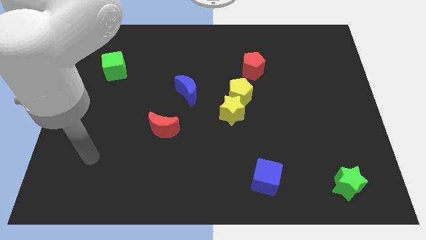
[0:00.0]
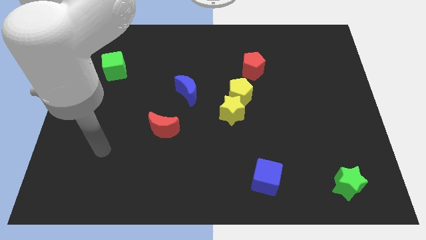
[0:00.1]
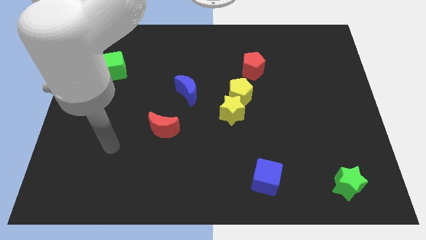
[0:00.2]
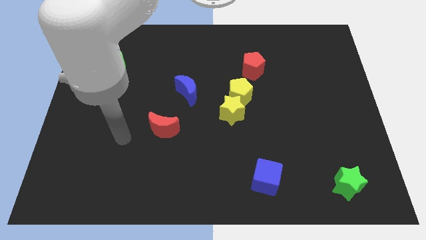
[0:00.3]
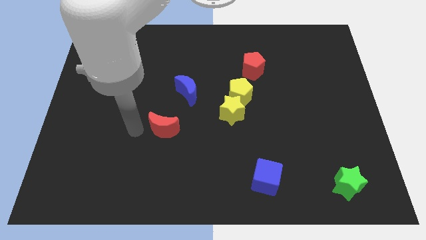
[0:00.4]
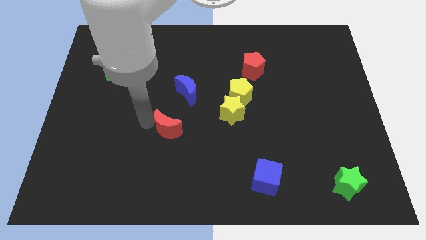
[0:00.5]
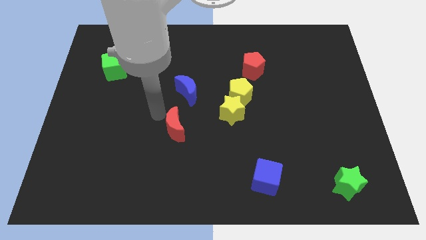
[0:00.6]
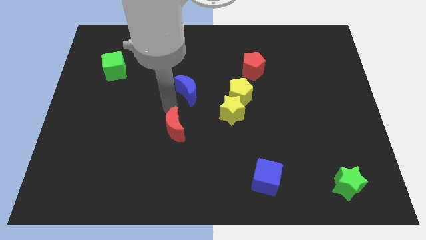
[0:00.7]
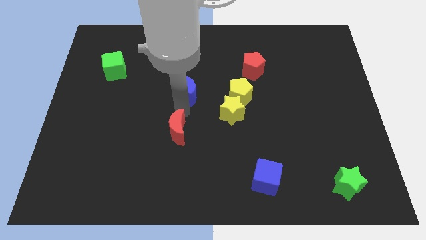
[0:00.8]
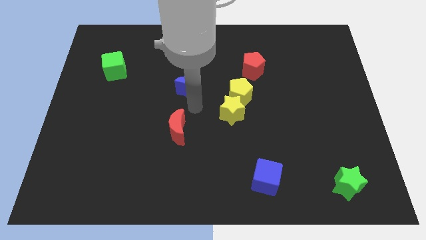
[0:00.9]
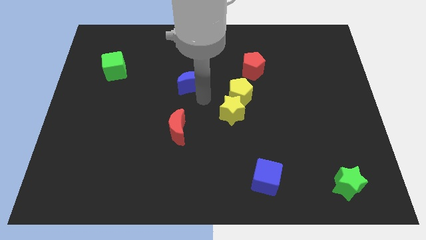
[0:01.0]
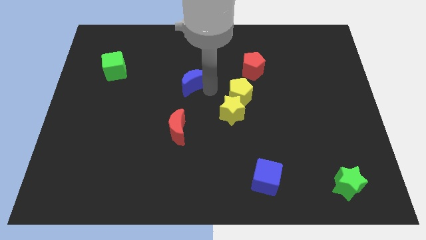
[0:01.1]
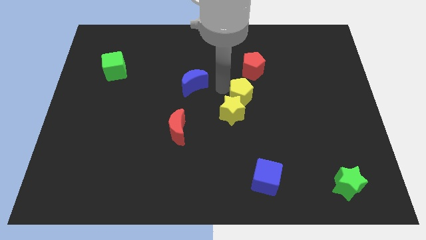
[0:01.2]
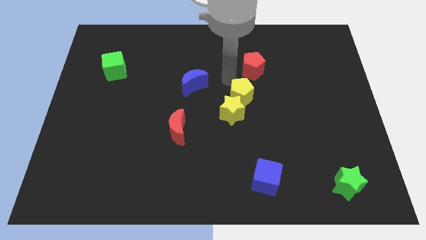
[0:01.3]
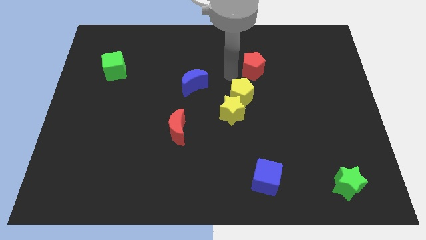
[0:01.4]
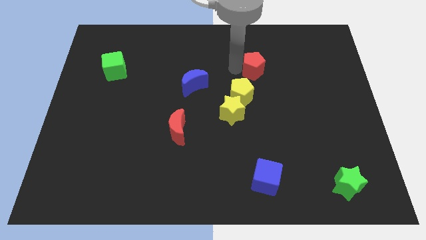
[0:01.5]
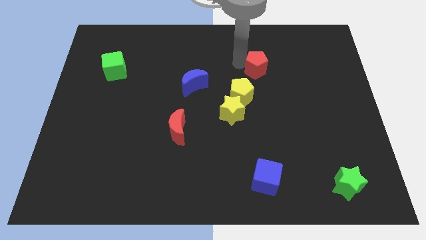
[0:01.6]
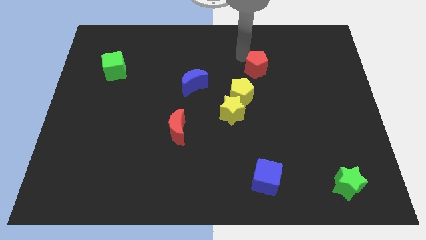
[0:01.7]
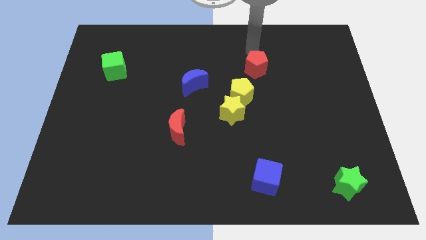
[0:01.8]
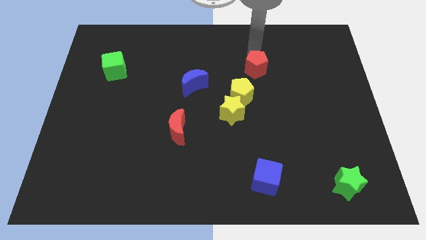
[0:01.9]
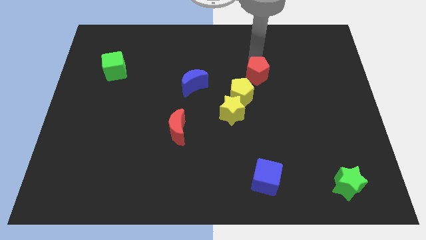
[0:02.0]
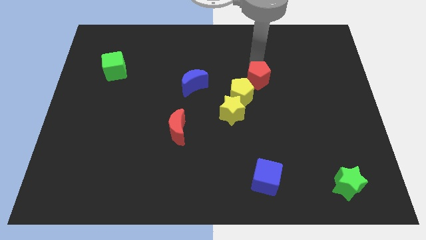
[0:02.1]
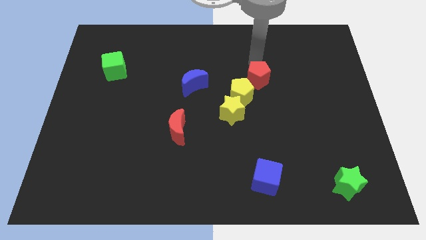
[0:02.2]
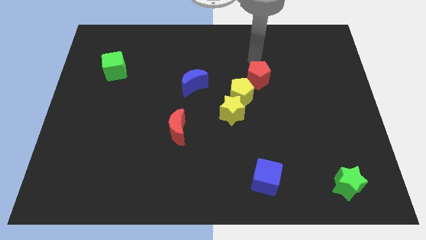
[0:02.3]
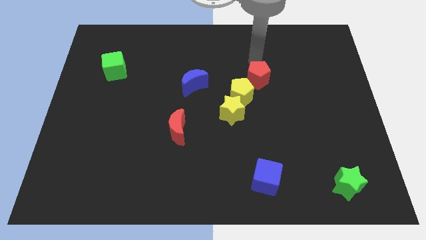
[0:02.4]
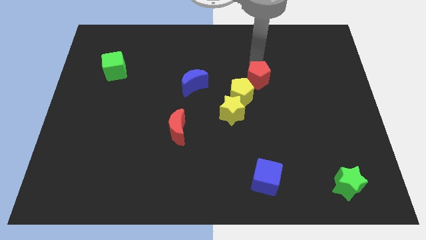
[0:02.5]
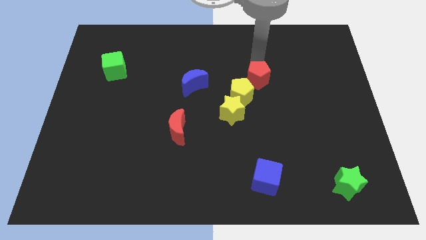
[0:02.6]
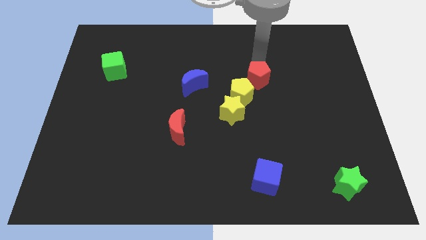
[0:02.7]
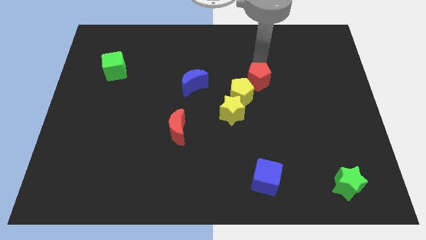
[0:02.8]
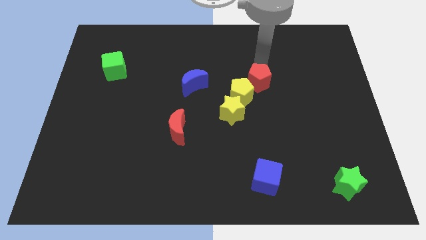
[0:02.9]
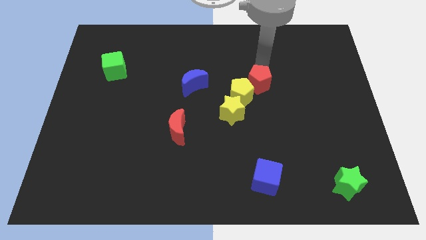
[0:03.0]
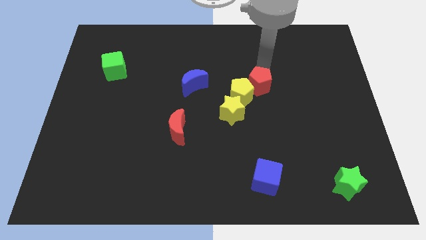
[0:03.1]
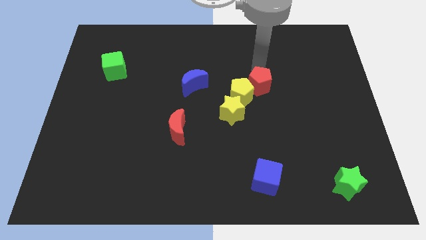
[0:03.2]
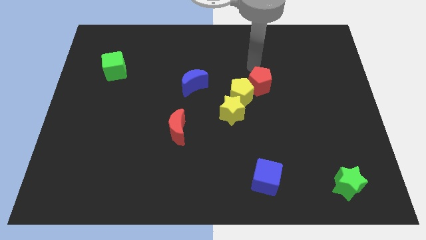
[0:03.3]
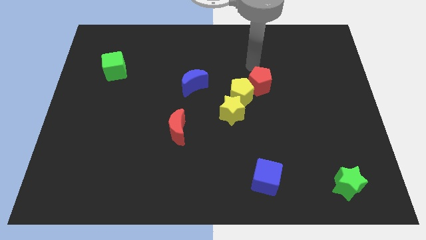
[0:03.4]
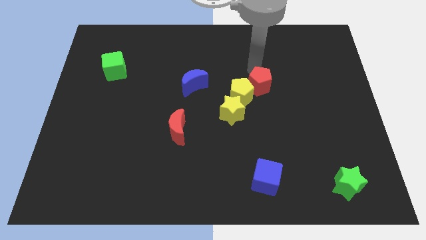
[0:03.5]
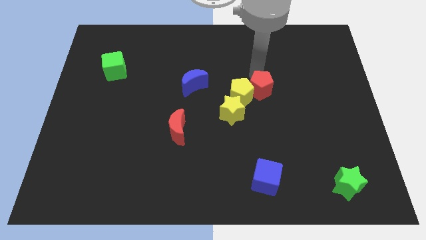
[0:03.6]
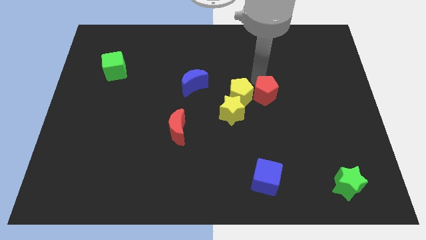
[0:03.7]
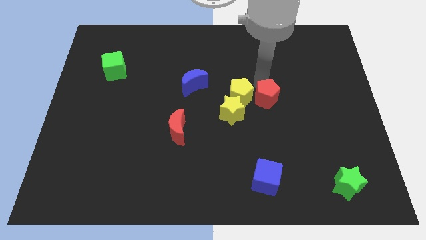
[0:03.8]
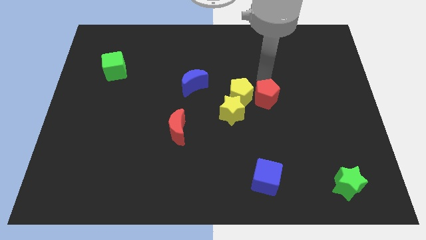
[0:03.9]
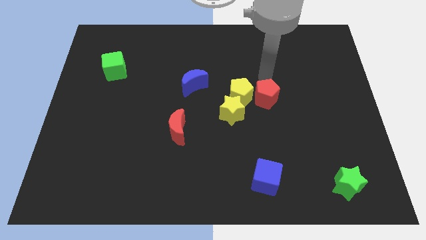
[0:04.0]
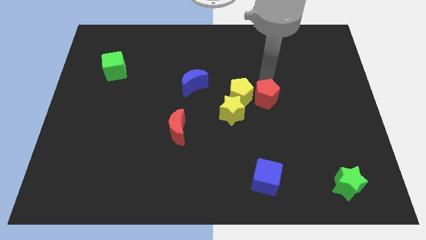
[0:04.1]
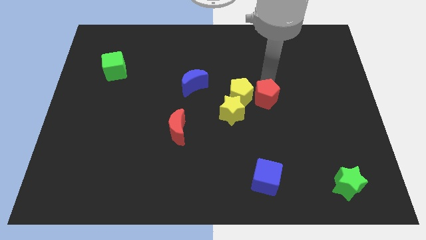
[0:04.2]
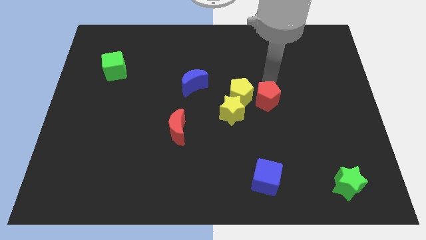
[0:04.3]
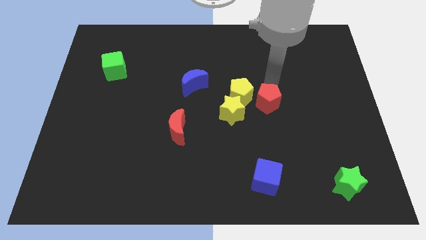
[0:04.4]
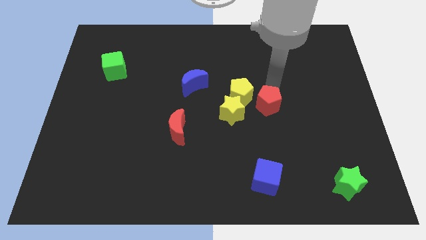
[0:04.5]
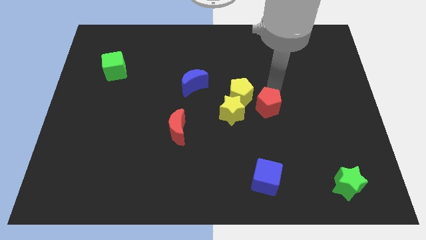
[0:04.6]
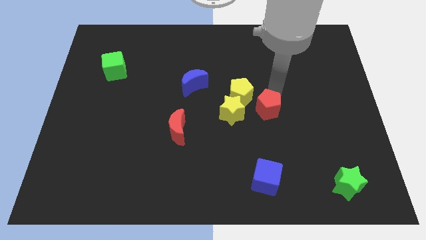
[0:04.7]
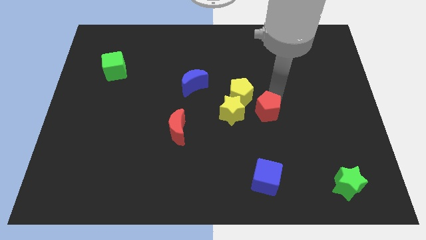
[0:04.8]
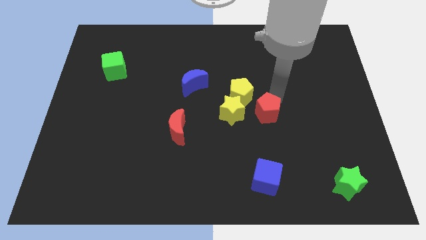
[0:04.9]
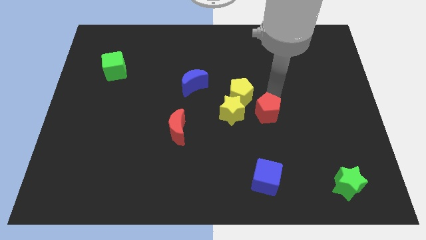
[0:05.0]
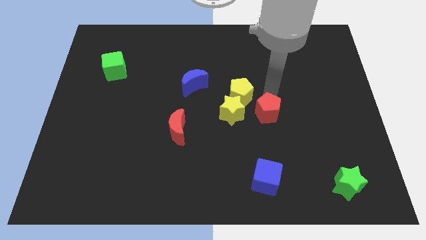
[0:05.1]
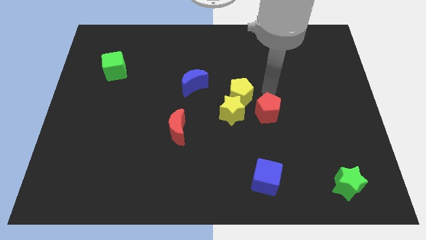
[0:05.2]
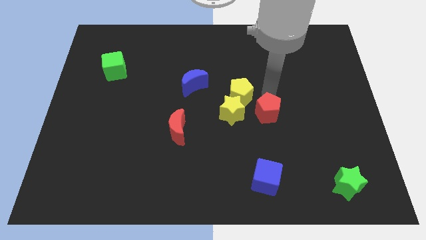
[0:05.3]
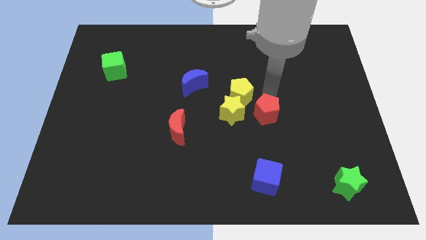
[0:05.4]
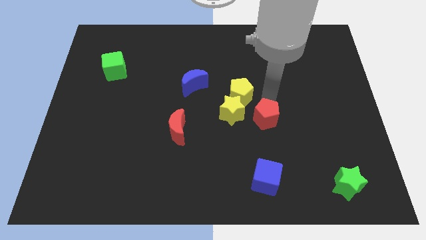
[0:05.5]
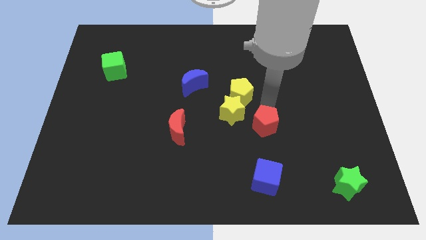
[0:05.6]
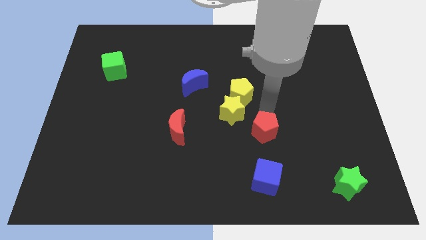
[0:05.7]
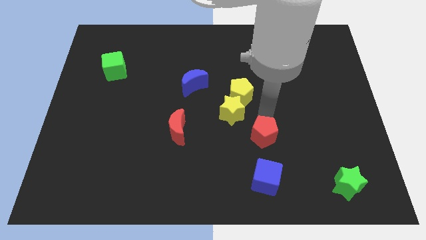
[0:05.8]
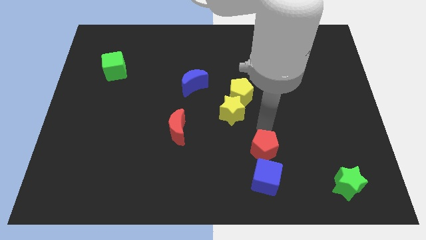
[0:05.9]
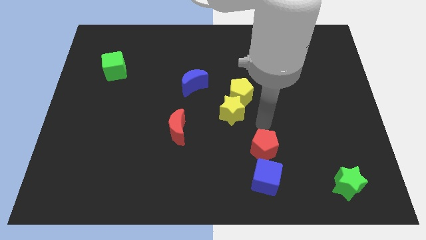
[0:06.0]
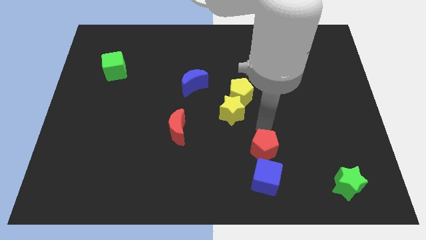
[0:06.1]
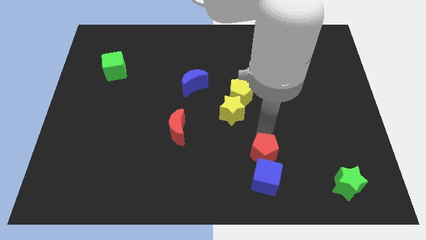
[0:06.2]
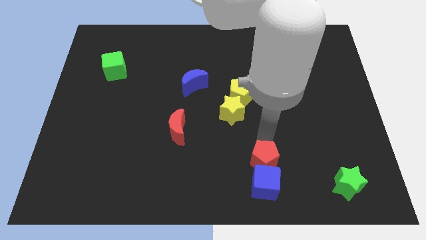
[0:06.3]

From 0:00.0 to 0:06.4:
put the red pentagon close to the blue cube

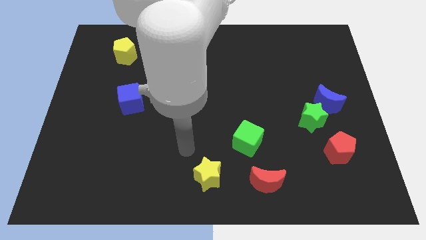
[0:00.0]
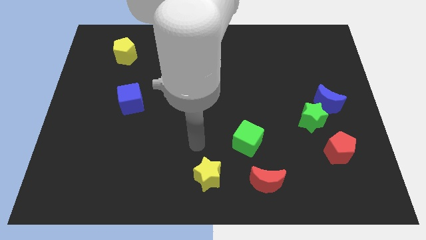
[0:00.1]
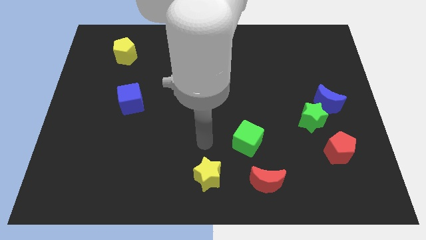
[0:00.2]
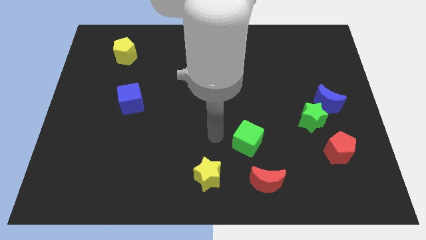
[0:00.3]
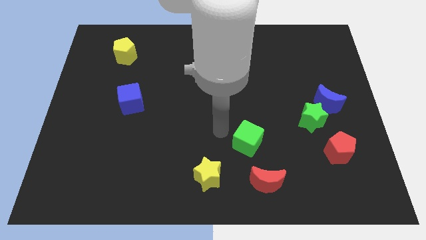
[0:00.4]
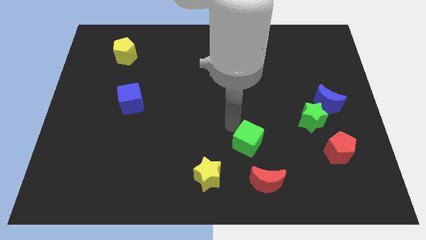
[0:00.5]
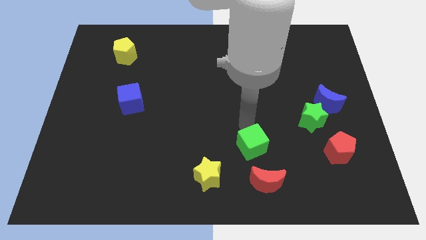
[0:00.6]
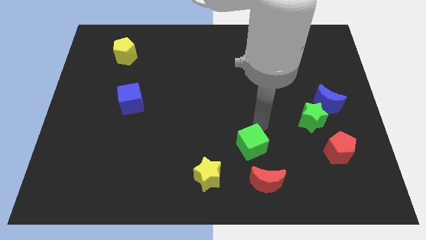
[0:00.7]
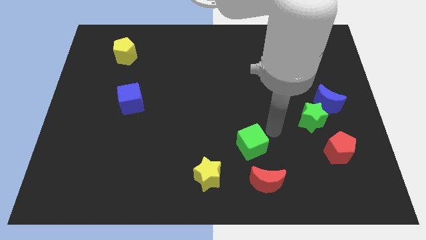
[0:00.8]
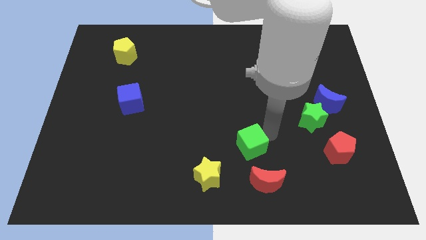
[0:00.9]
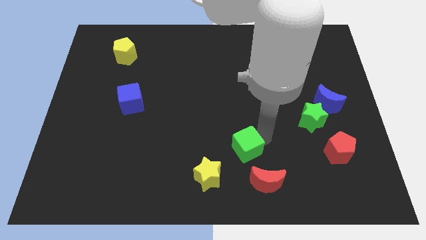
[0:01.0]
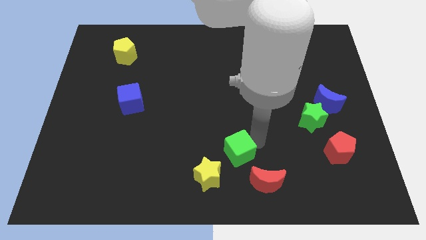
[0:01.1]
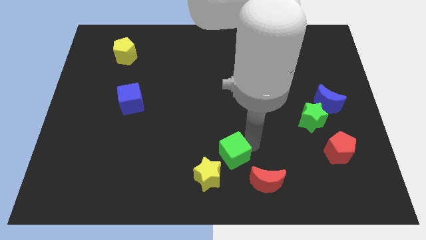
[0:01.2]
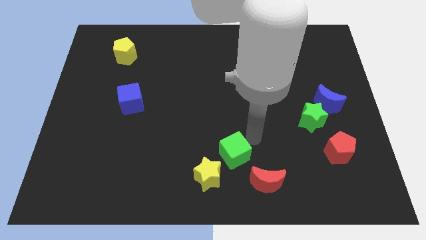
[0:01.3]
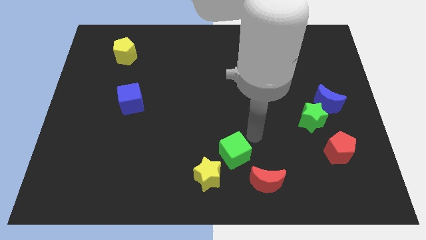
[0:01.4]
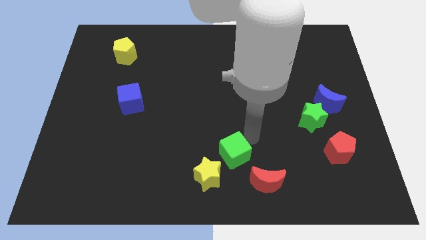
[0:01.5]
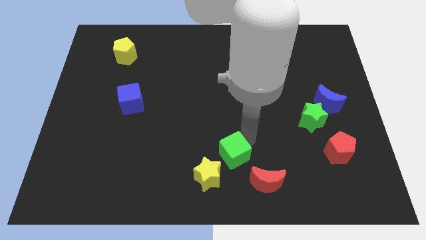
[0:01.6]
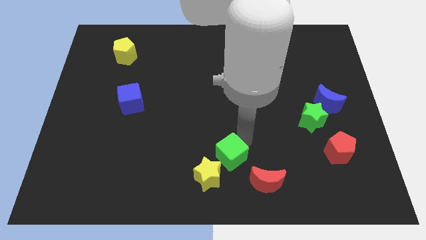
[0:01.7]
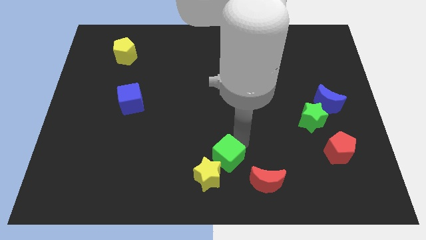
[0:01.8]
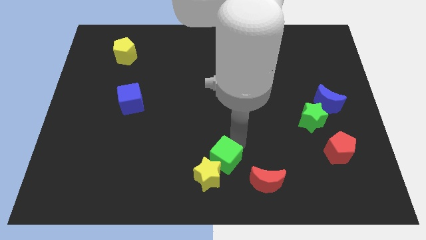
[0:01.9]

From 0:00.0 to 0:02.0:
push the green cube close to the yellow star
